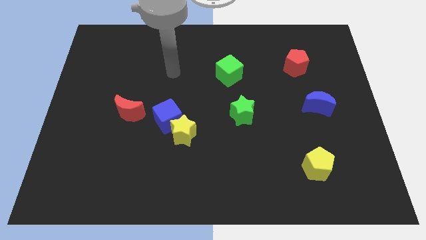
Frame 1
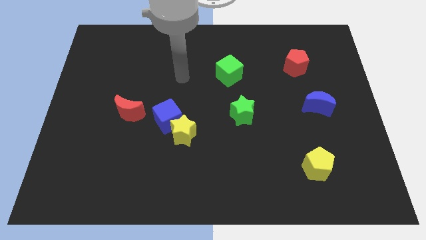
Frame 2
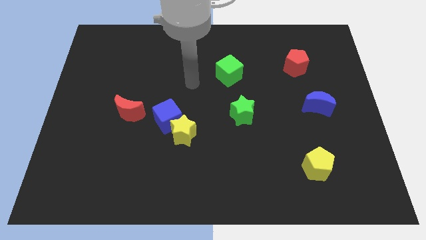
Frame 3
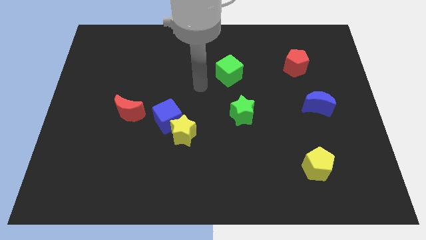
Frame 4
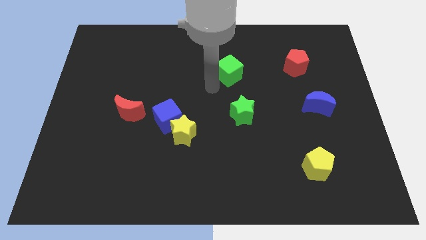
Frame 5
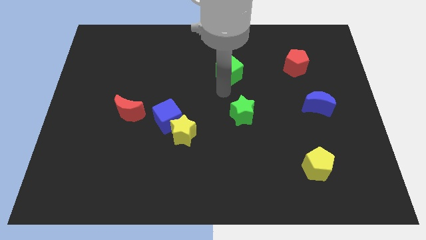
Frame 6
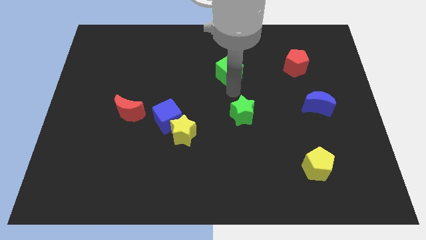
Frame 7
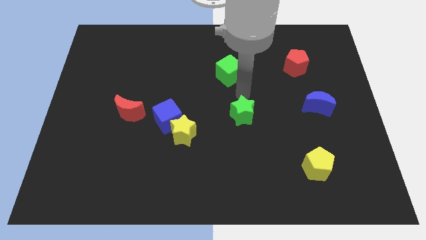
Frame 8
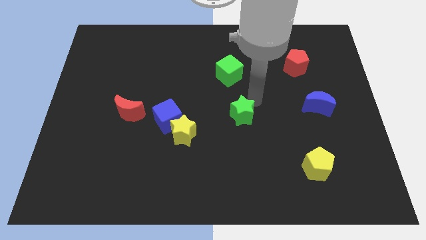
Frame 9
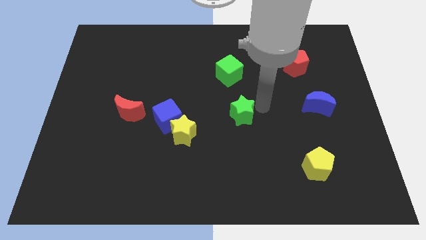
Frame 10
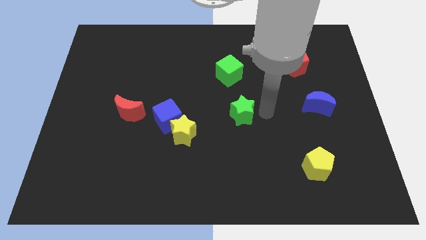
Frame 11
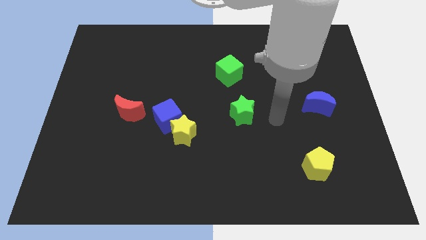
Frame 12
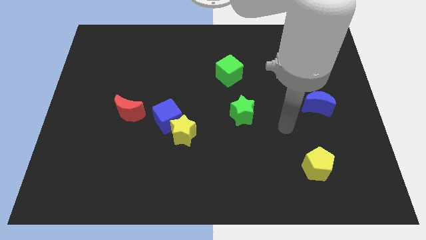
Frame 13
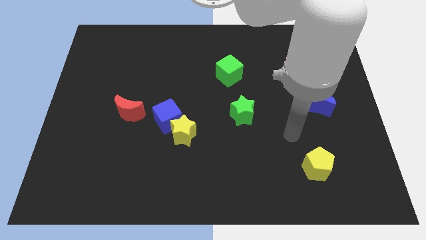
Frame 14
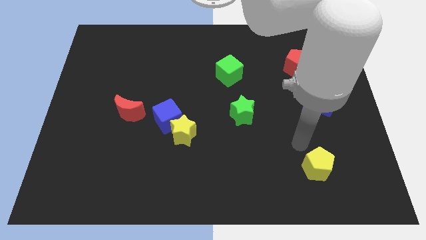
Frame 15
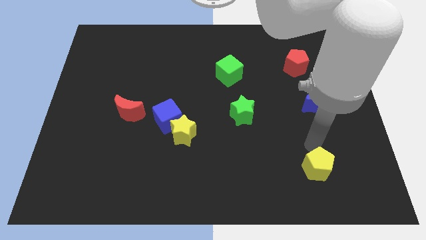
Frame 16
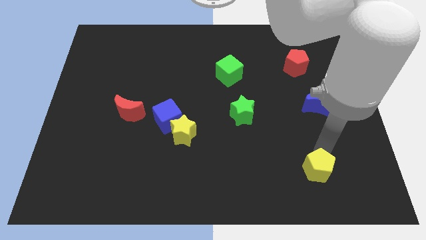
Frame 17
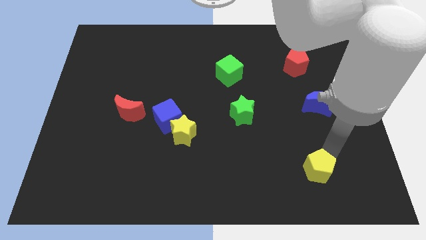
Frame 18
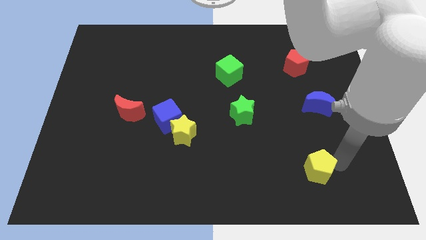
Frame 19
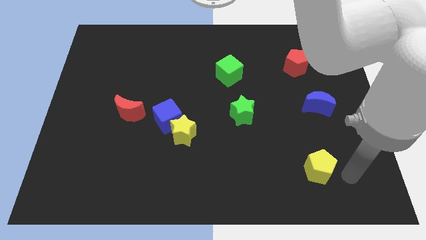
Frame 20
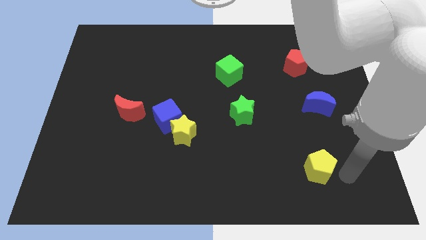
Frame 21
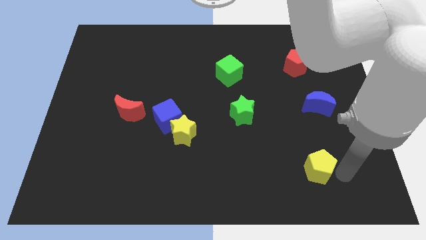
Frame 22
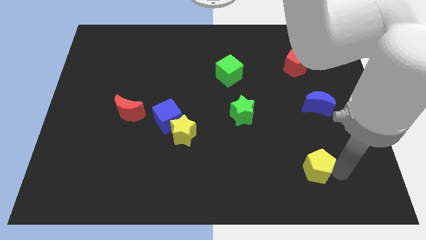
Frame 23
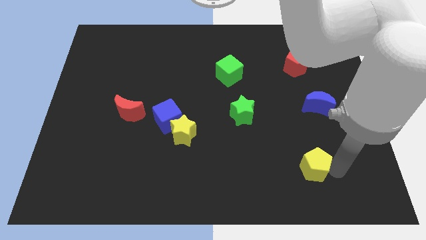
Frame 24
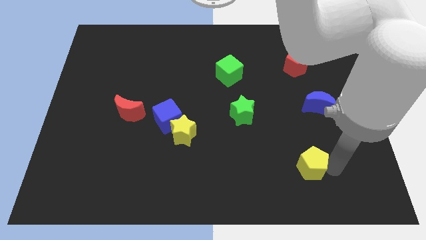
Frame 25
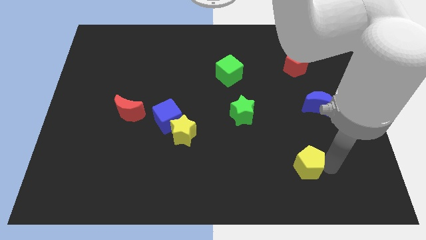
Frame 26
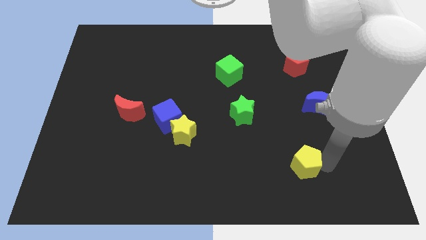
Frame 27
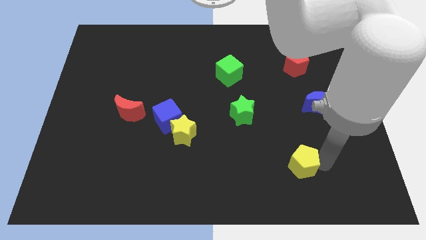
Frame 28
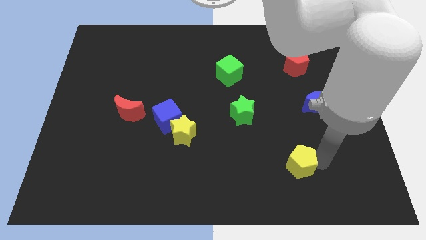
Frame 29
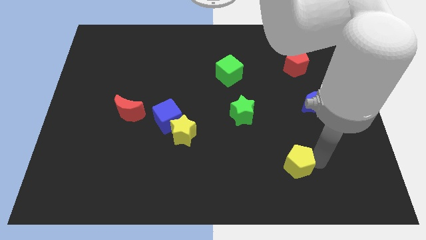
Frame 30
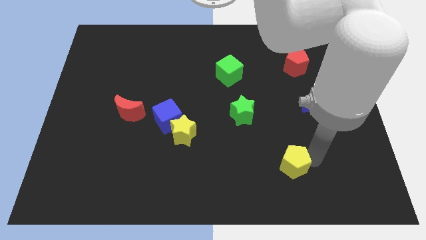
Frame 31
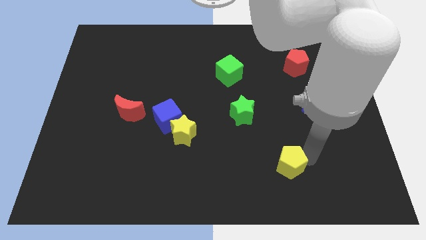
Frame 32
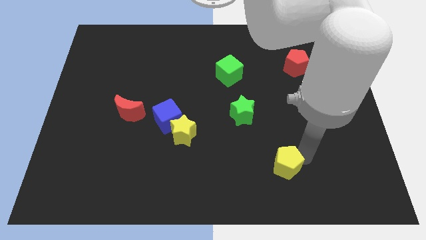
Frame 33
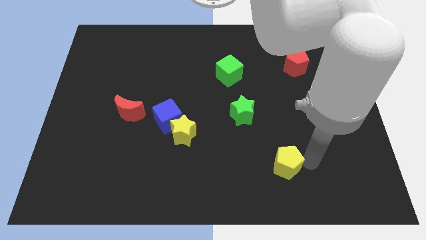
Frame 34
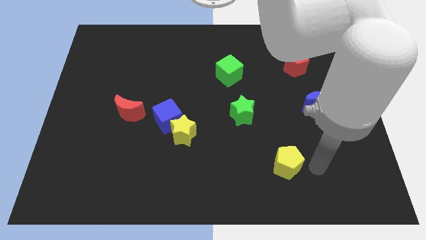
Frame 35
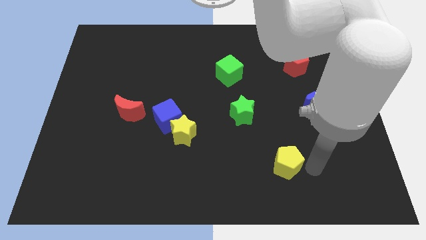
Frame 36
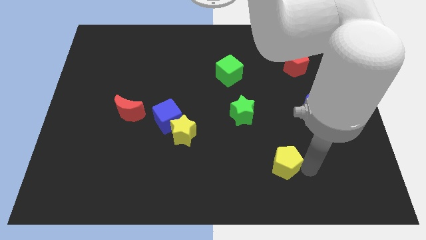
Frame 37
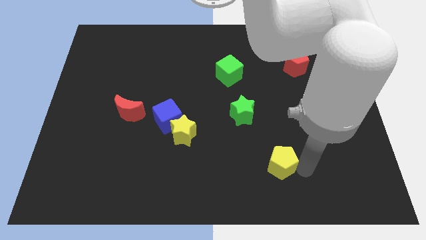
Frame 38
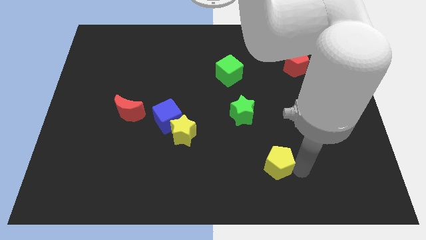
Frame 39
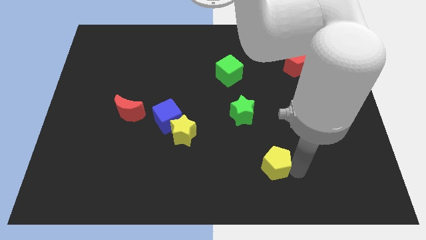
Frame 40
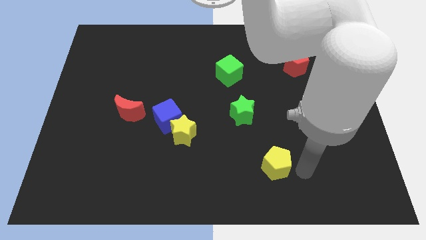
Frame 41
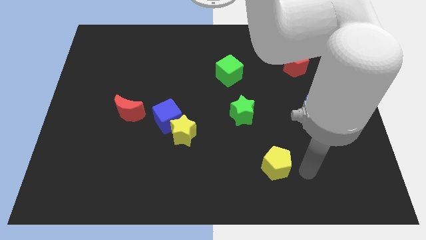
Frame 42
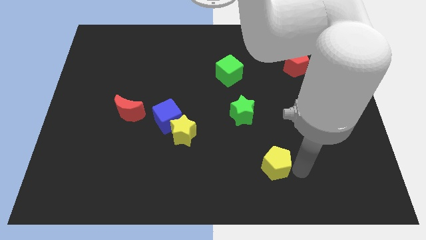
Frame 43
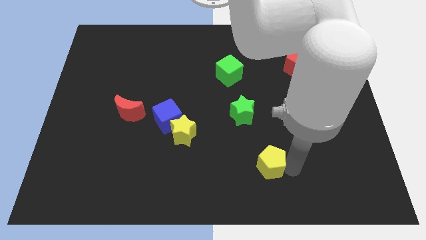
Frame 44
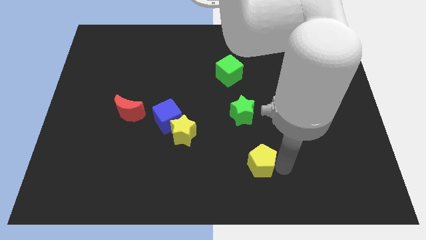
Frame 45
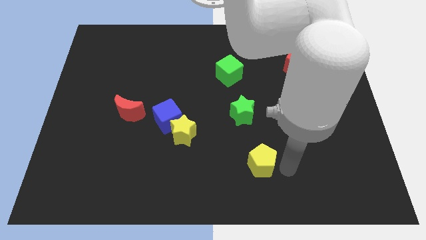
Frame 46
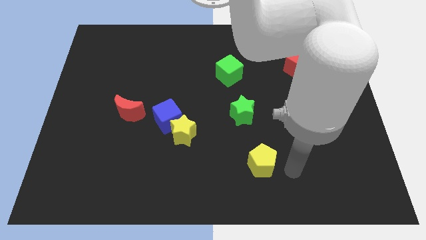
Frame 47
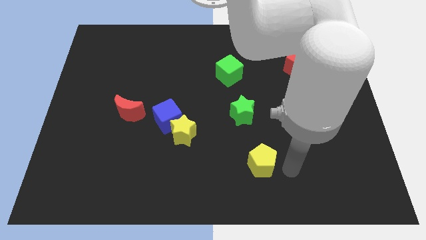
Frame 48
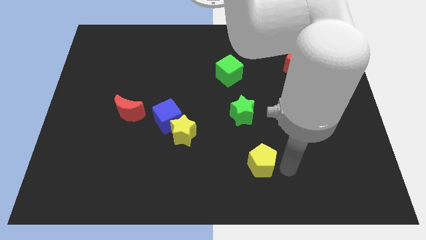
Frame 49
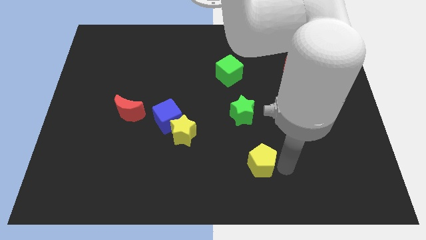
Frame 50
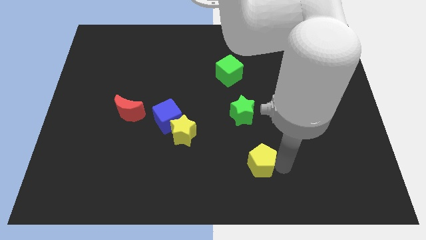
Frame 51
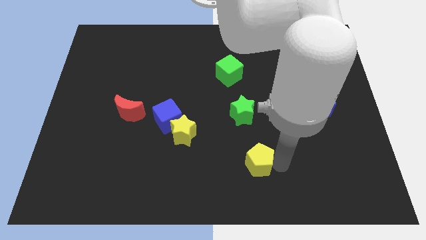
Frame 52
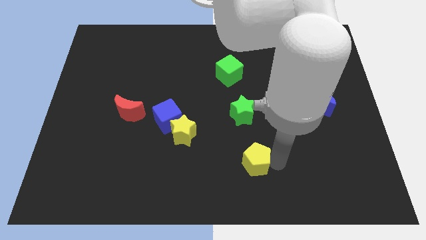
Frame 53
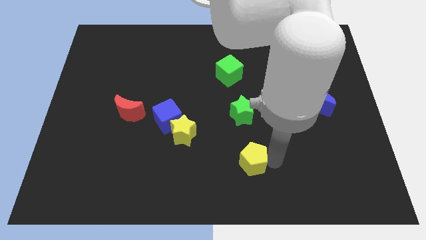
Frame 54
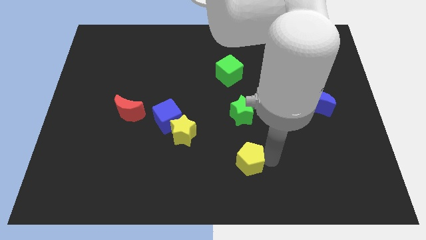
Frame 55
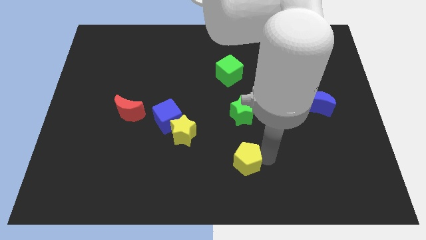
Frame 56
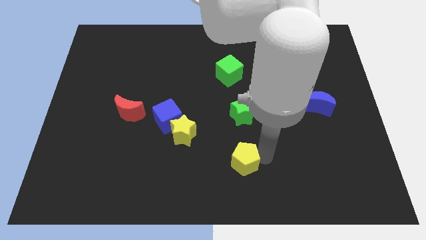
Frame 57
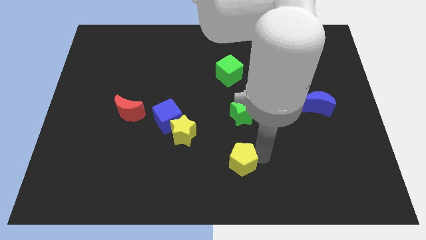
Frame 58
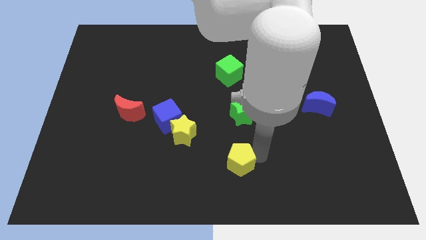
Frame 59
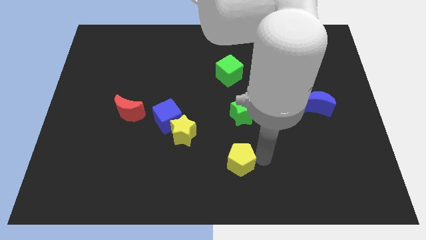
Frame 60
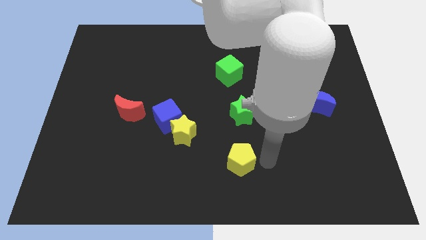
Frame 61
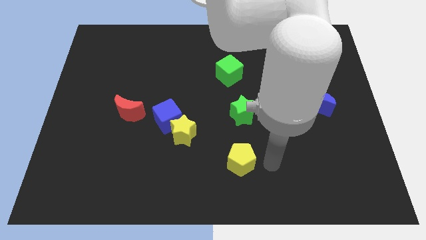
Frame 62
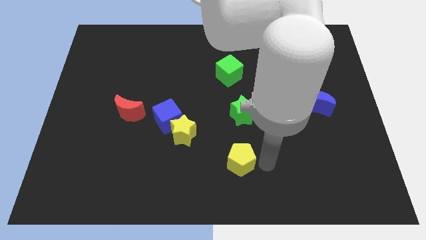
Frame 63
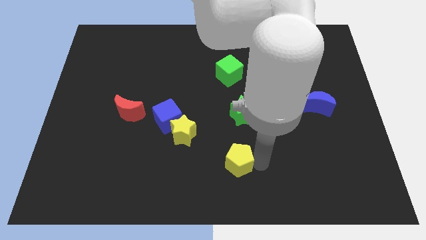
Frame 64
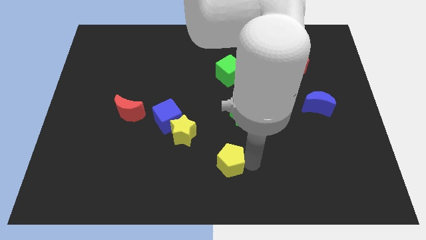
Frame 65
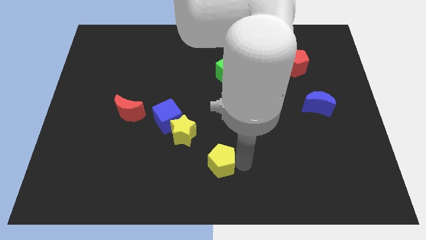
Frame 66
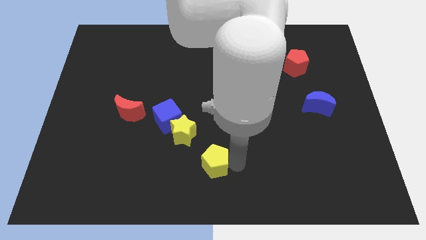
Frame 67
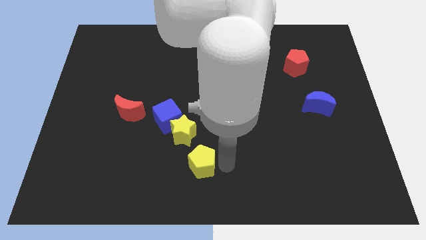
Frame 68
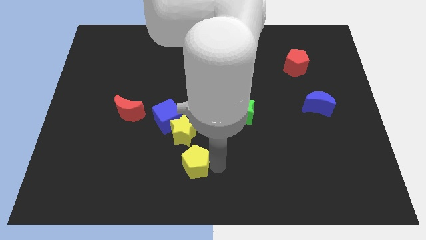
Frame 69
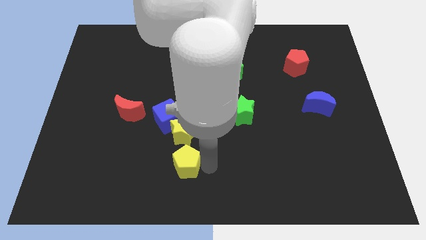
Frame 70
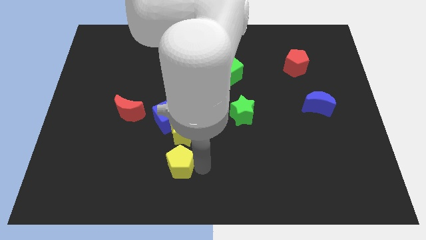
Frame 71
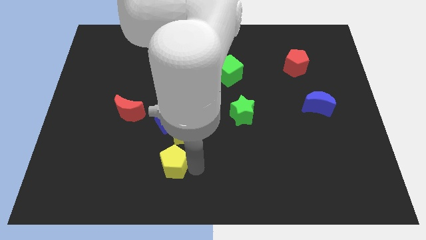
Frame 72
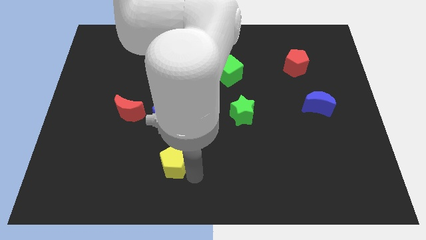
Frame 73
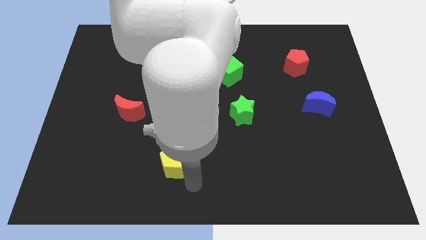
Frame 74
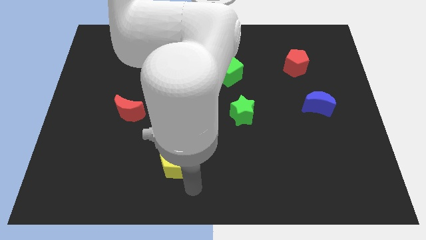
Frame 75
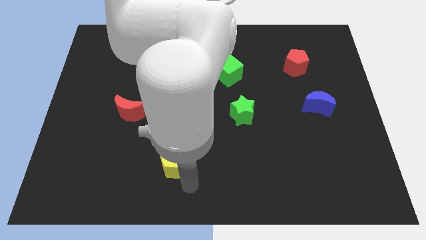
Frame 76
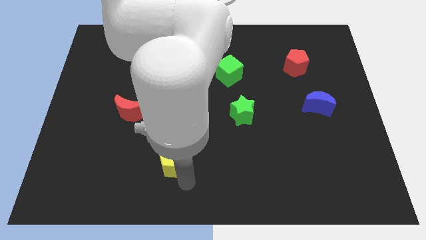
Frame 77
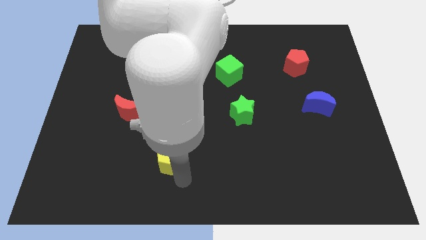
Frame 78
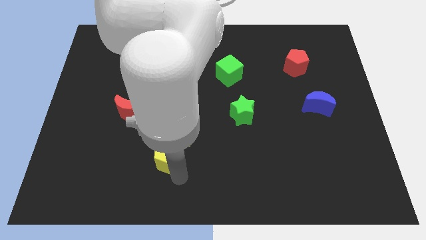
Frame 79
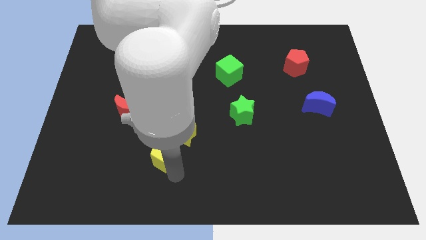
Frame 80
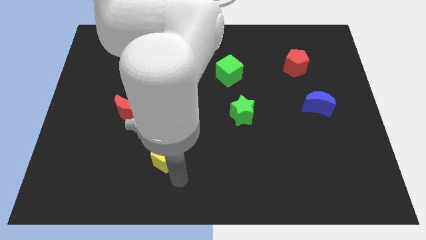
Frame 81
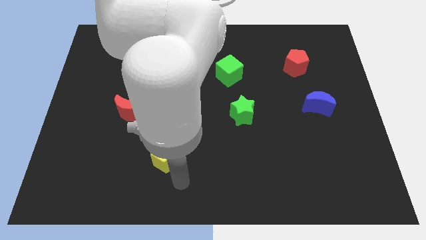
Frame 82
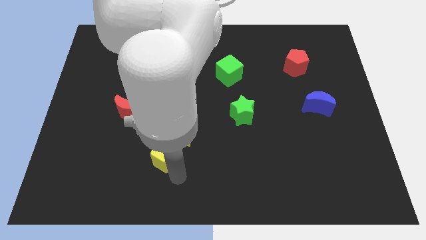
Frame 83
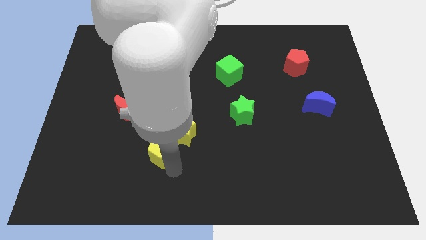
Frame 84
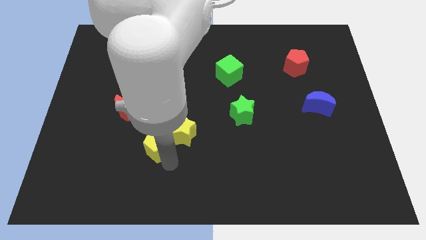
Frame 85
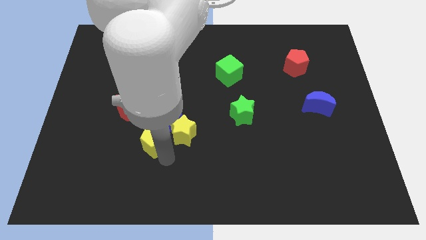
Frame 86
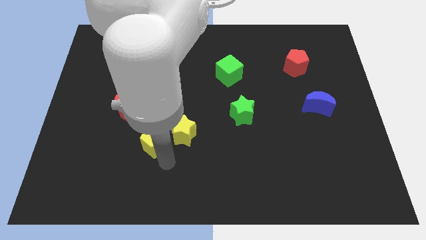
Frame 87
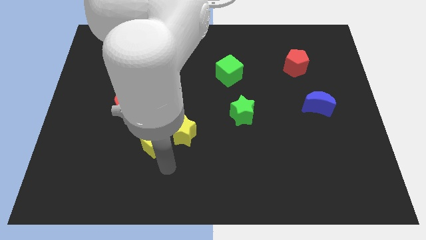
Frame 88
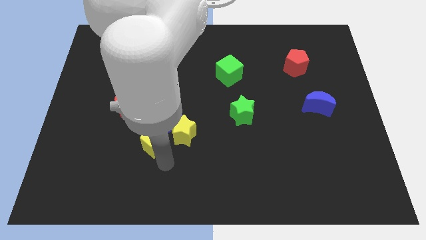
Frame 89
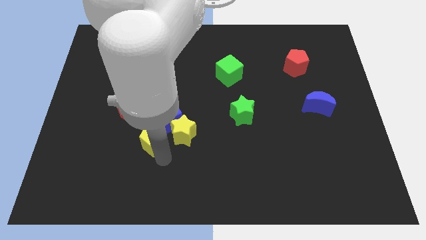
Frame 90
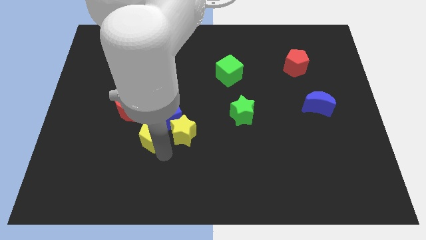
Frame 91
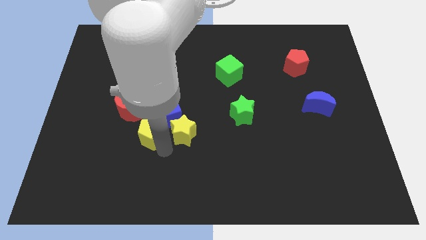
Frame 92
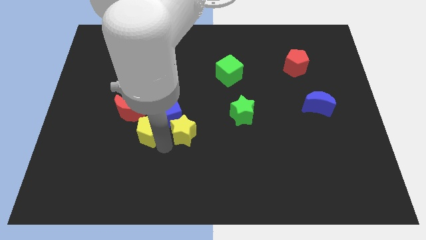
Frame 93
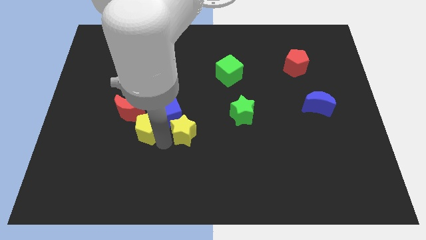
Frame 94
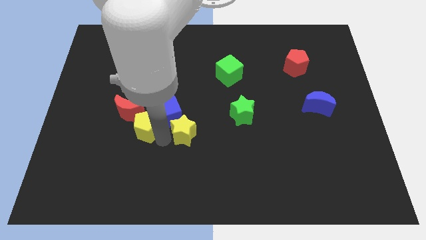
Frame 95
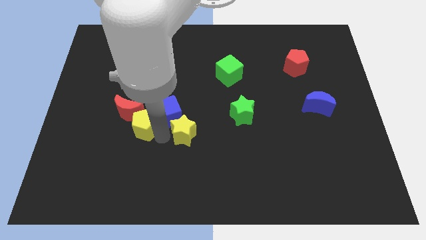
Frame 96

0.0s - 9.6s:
move the yellow pentagon to the red moon
